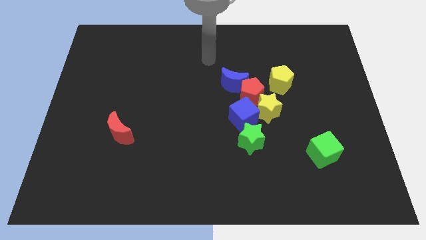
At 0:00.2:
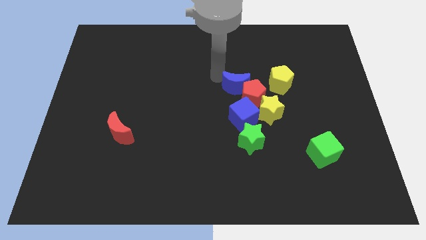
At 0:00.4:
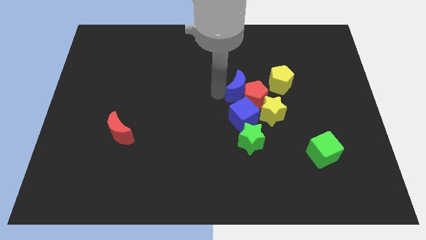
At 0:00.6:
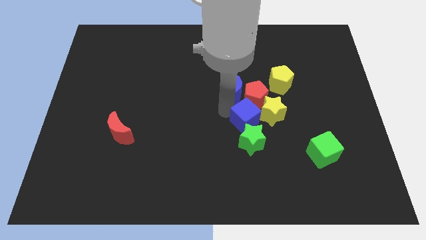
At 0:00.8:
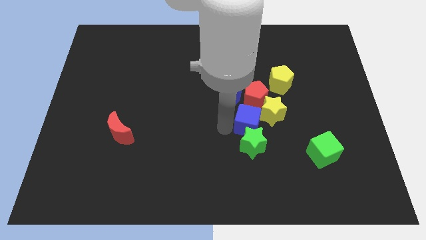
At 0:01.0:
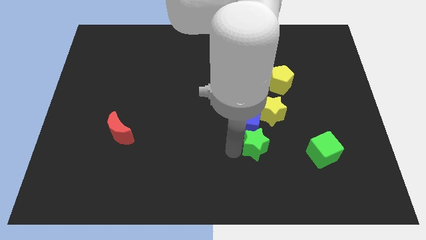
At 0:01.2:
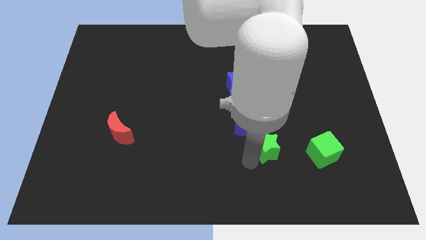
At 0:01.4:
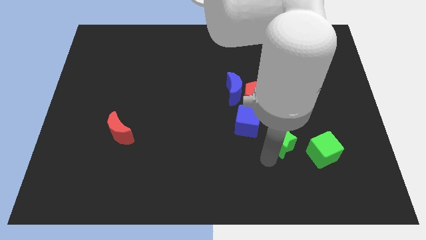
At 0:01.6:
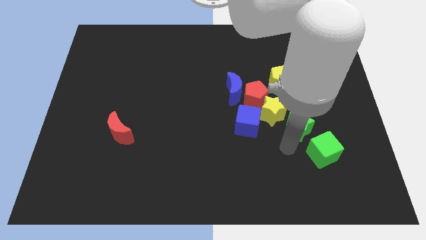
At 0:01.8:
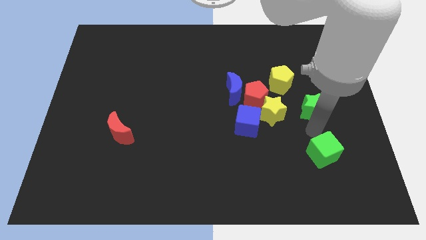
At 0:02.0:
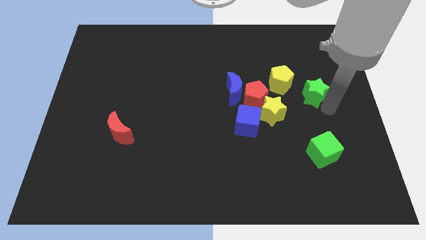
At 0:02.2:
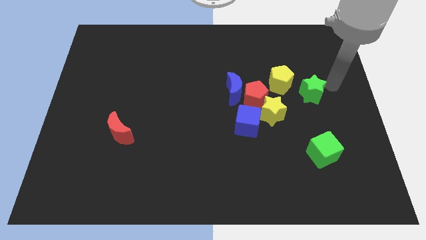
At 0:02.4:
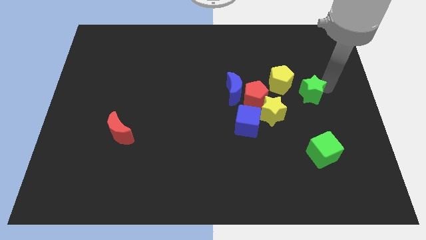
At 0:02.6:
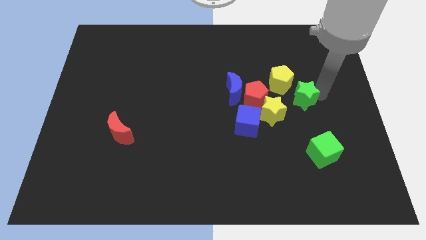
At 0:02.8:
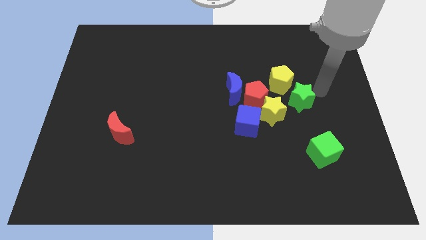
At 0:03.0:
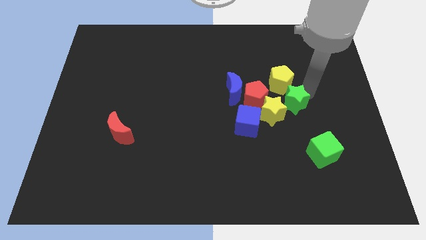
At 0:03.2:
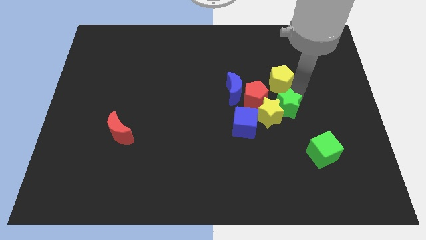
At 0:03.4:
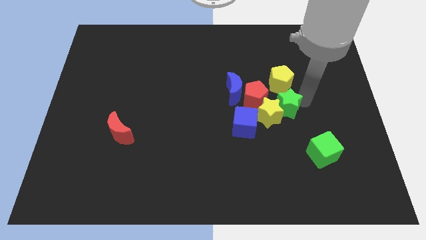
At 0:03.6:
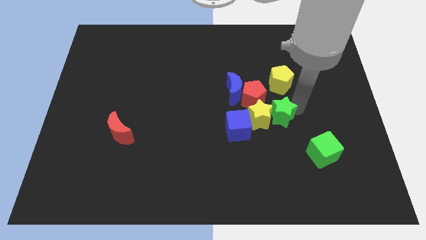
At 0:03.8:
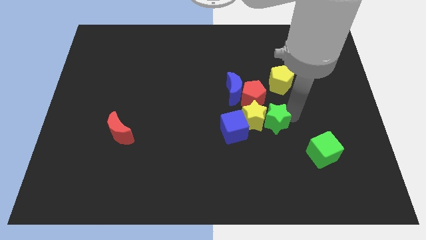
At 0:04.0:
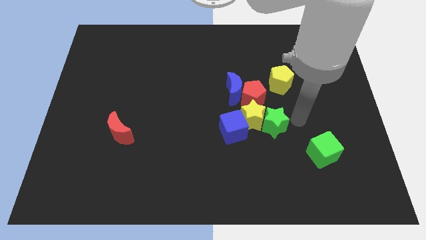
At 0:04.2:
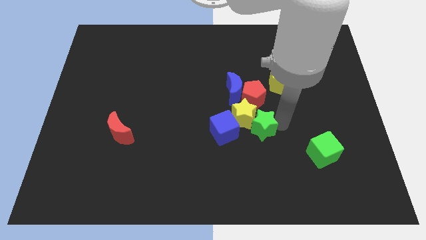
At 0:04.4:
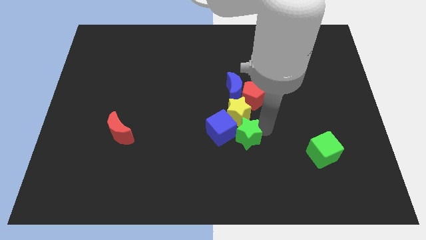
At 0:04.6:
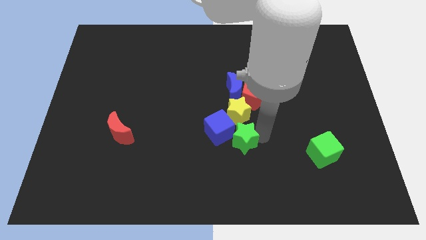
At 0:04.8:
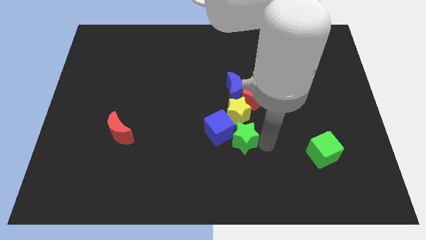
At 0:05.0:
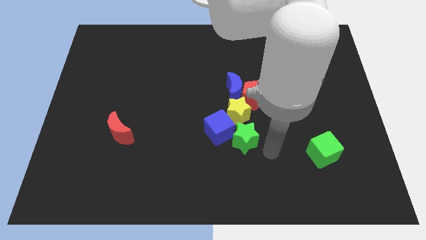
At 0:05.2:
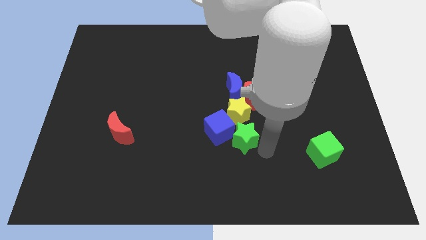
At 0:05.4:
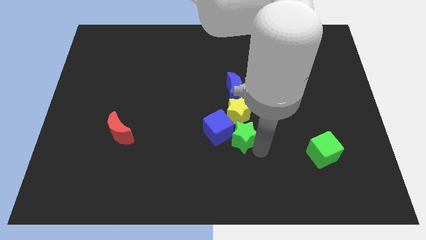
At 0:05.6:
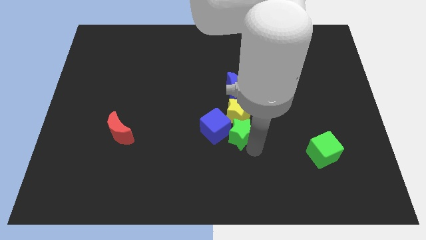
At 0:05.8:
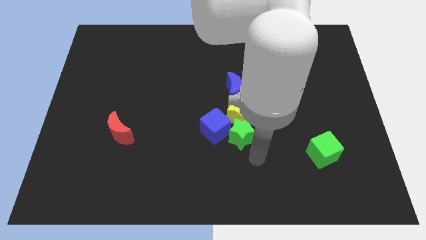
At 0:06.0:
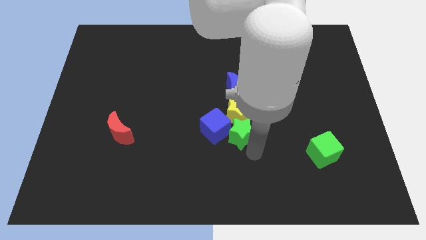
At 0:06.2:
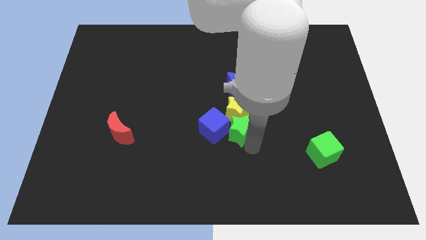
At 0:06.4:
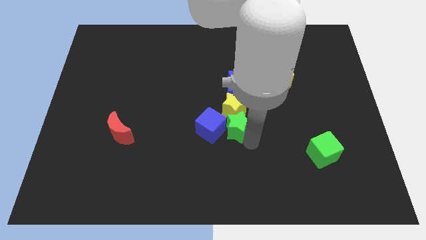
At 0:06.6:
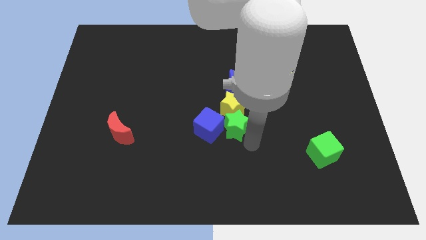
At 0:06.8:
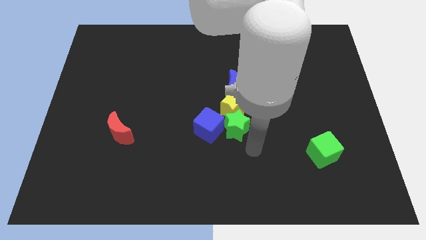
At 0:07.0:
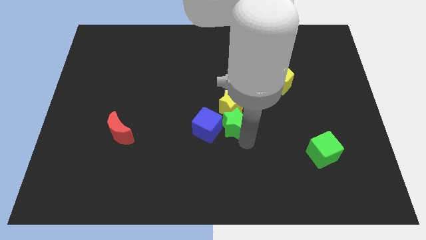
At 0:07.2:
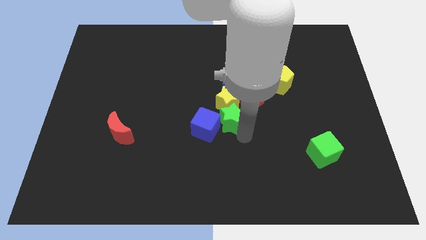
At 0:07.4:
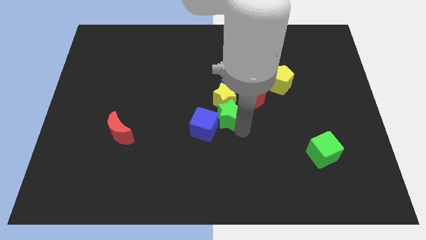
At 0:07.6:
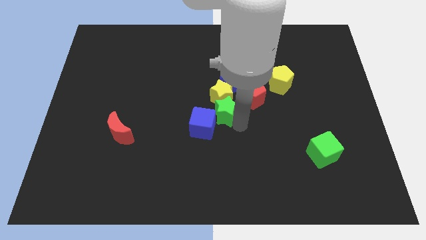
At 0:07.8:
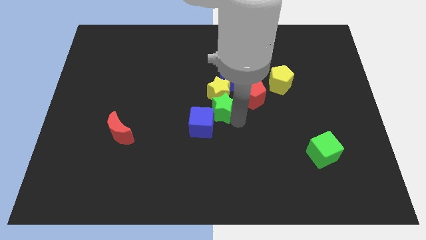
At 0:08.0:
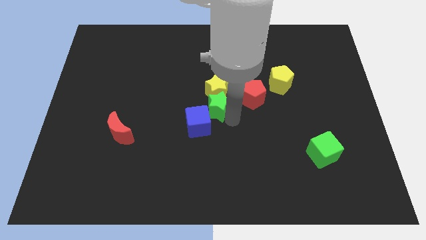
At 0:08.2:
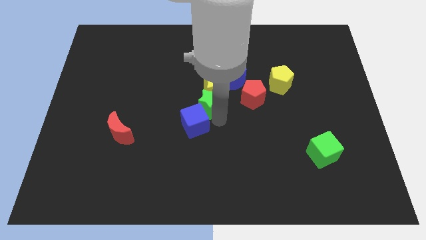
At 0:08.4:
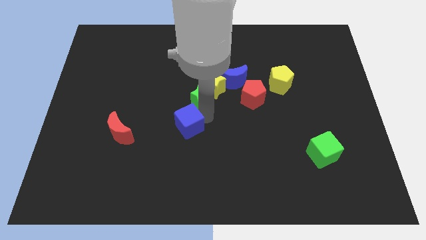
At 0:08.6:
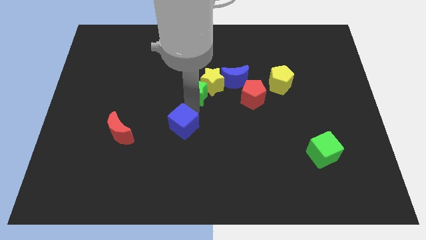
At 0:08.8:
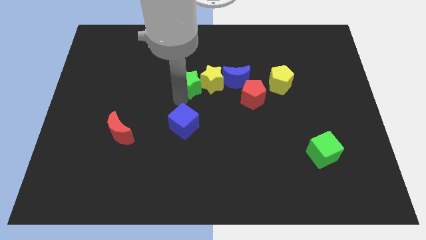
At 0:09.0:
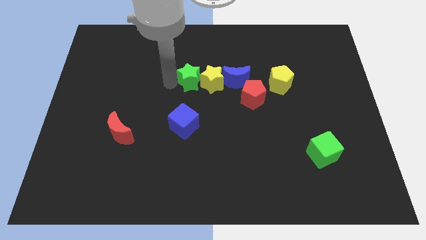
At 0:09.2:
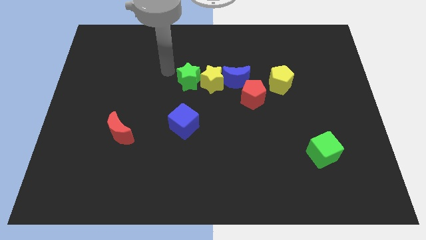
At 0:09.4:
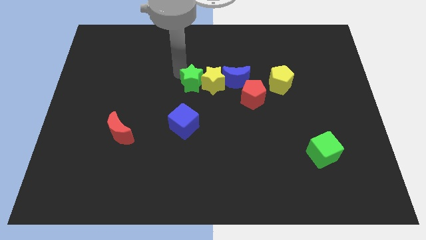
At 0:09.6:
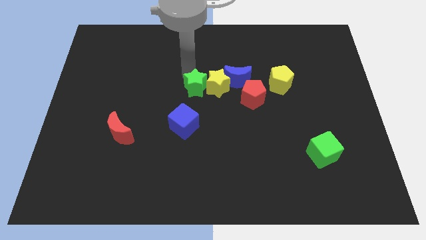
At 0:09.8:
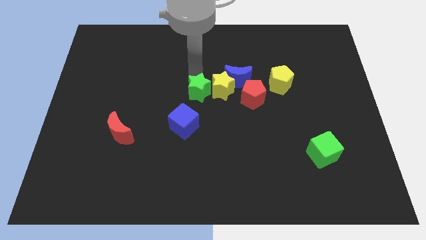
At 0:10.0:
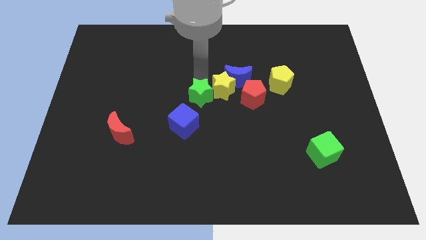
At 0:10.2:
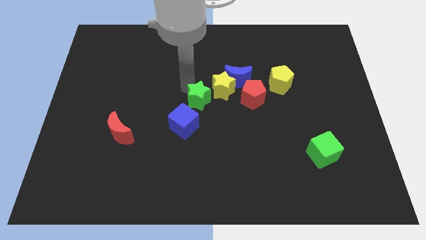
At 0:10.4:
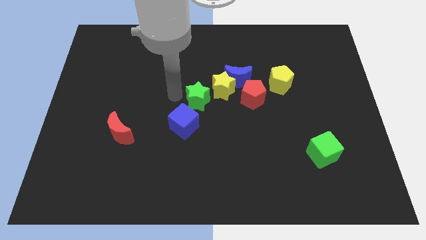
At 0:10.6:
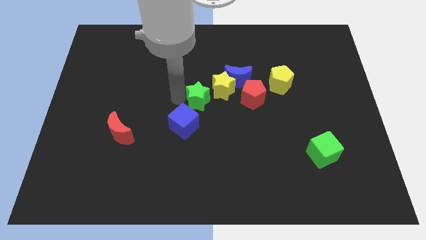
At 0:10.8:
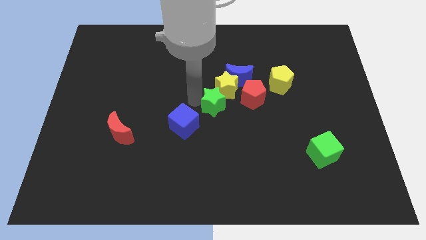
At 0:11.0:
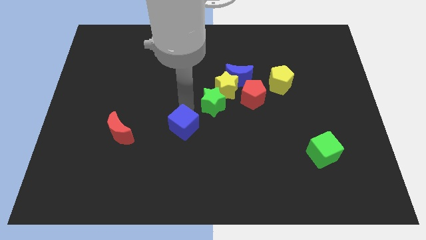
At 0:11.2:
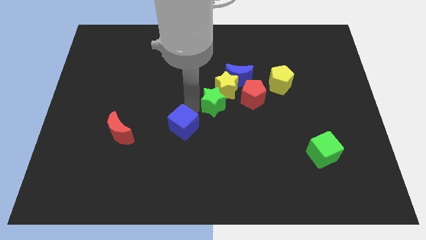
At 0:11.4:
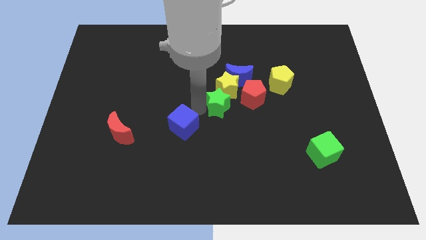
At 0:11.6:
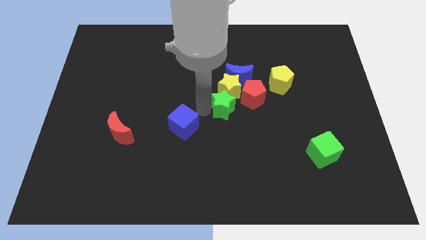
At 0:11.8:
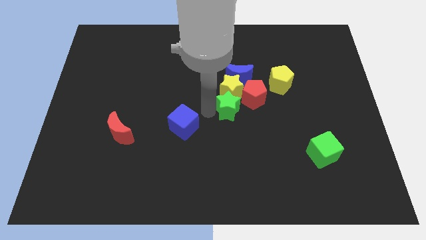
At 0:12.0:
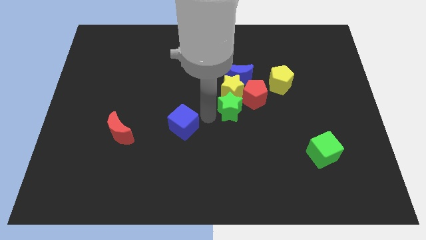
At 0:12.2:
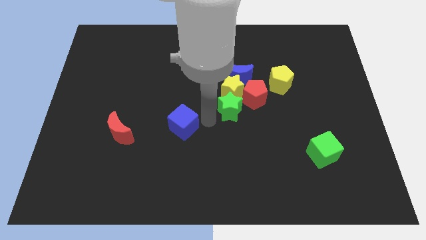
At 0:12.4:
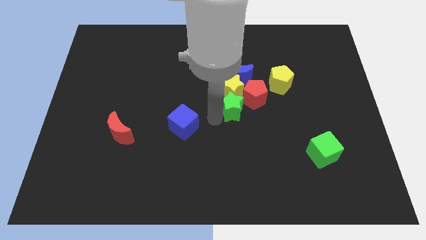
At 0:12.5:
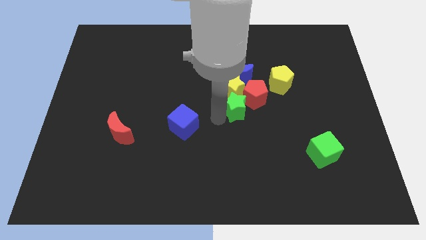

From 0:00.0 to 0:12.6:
slide the green star next to the red pentagon

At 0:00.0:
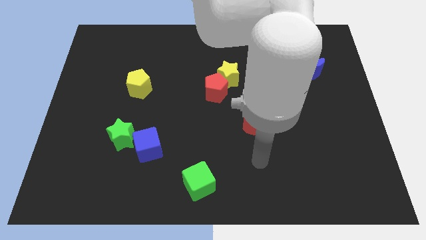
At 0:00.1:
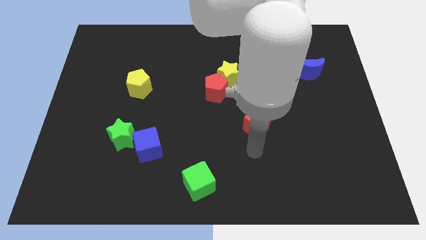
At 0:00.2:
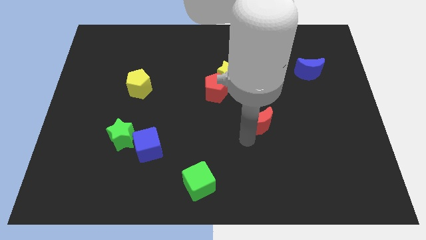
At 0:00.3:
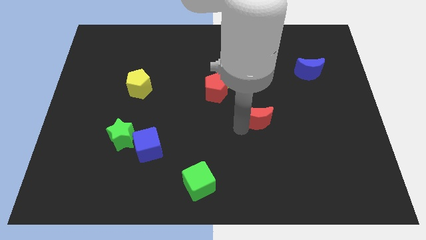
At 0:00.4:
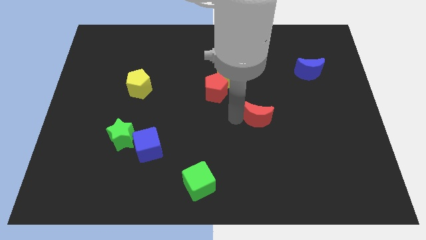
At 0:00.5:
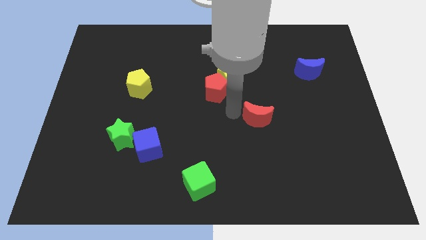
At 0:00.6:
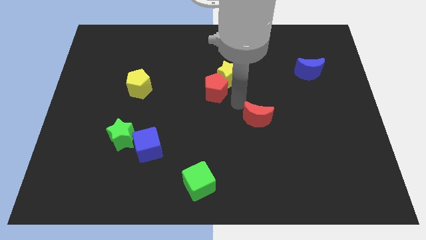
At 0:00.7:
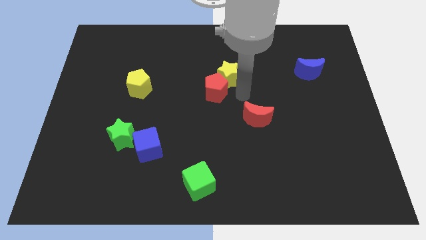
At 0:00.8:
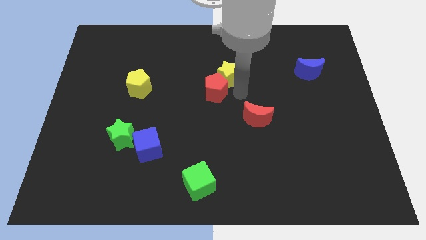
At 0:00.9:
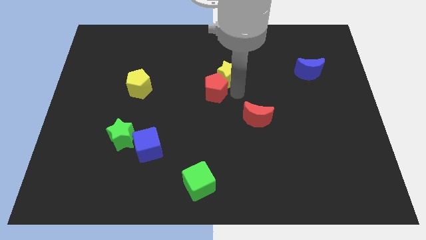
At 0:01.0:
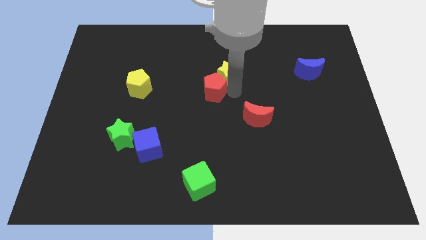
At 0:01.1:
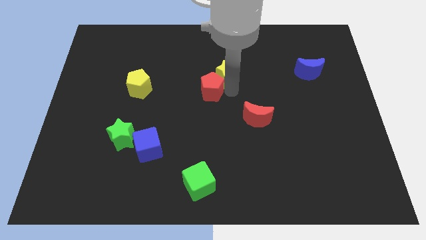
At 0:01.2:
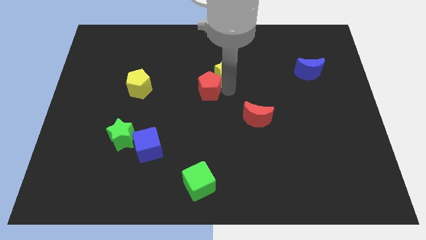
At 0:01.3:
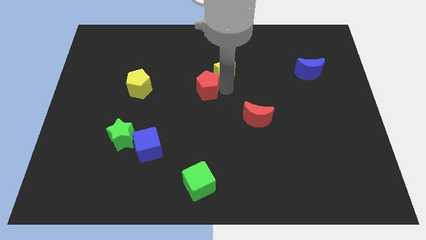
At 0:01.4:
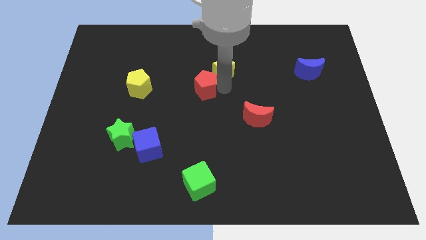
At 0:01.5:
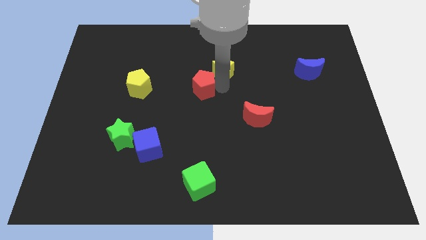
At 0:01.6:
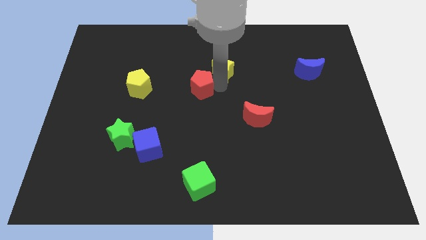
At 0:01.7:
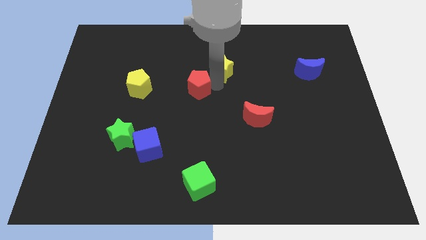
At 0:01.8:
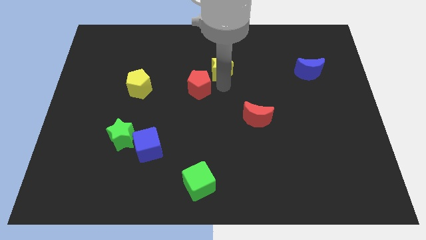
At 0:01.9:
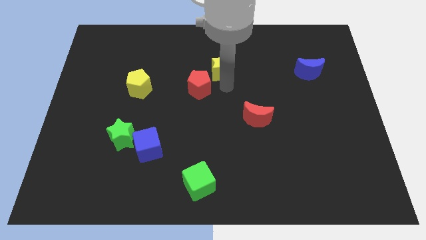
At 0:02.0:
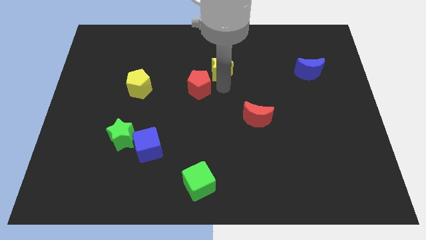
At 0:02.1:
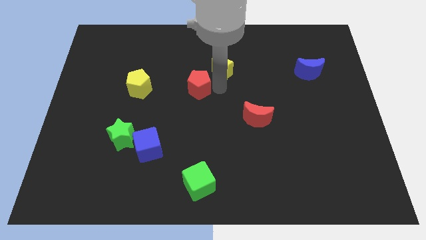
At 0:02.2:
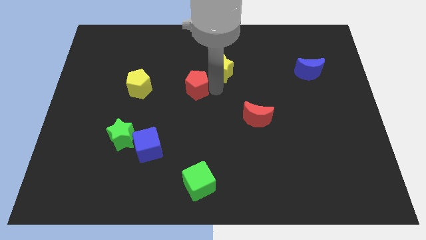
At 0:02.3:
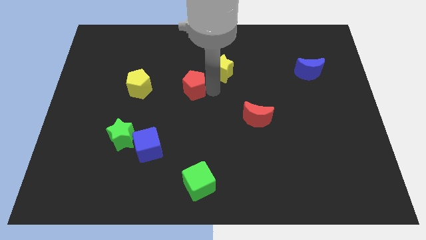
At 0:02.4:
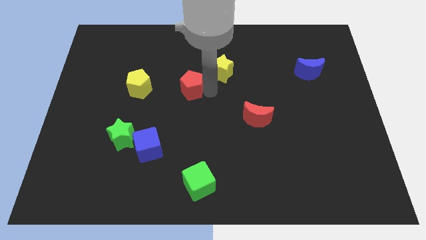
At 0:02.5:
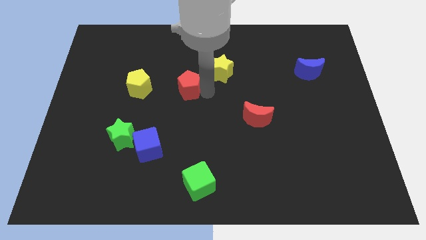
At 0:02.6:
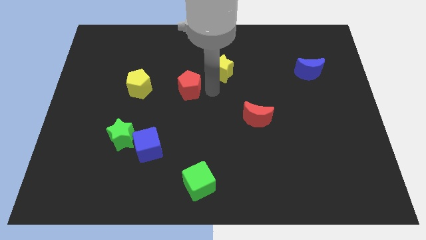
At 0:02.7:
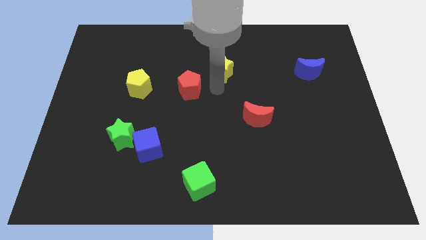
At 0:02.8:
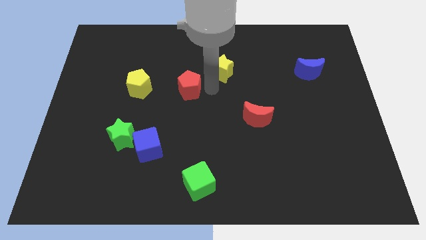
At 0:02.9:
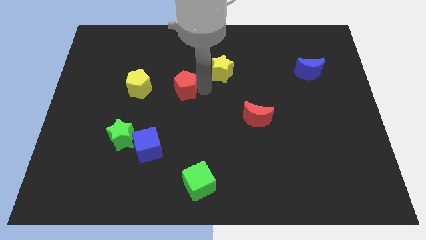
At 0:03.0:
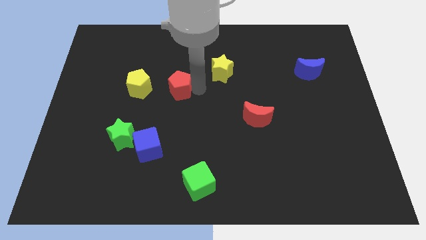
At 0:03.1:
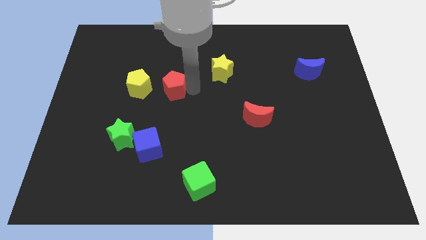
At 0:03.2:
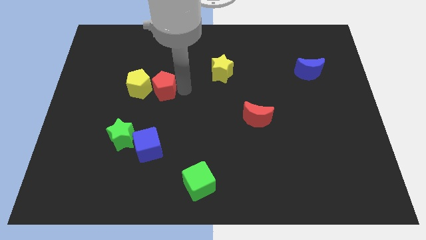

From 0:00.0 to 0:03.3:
put the red pentagon to the yellow pentagon
